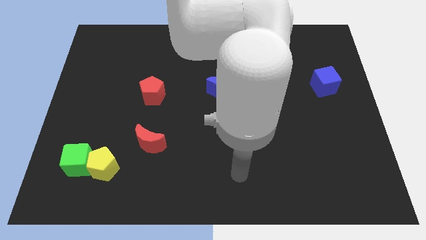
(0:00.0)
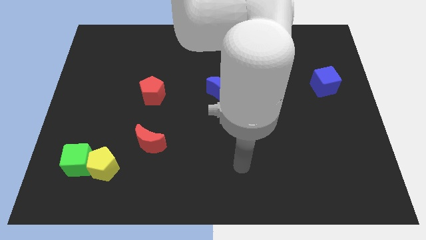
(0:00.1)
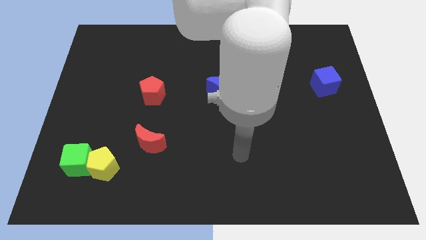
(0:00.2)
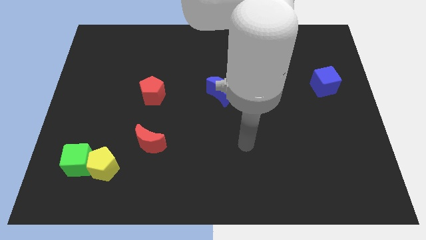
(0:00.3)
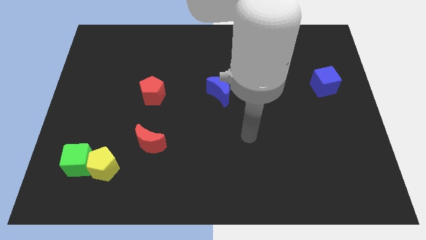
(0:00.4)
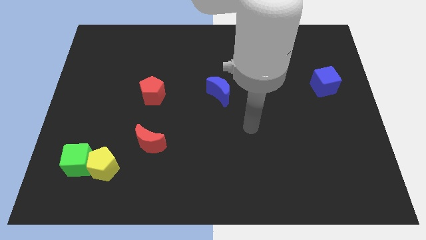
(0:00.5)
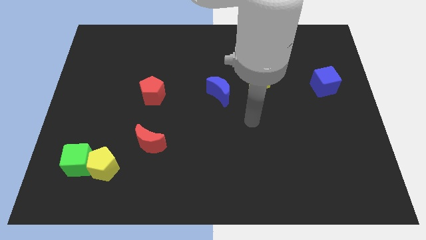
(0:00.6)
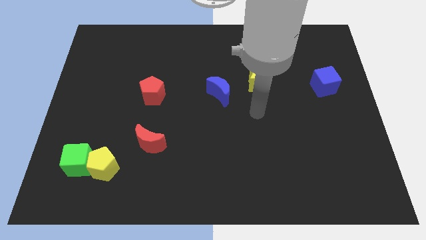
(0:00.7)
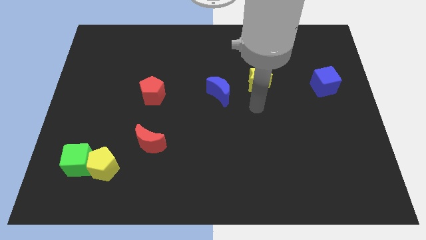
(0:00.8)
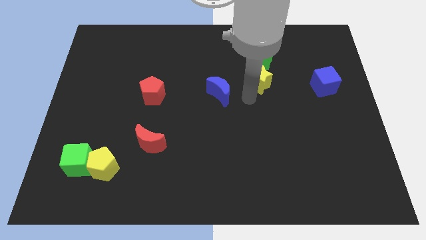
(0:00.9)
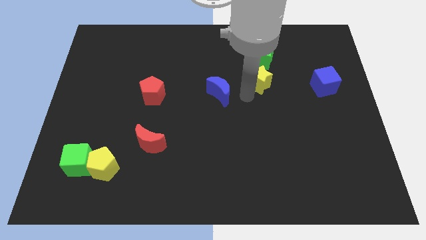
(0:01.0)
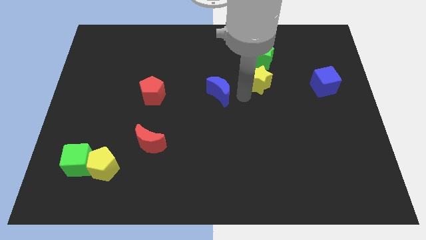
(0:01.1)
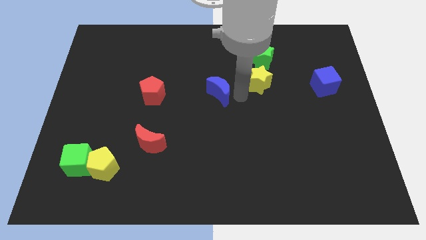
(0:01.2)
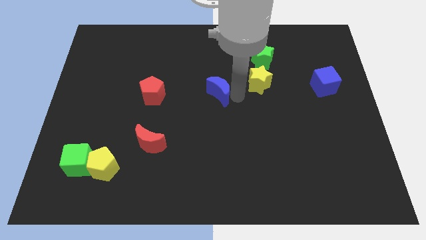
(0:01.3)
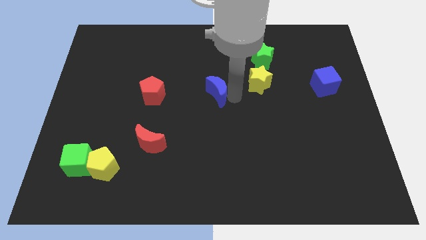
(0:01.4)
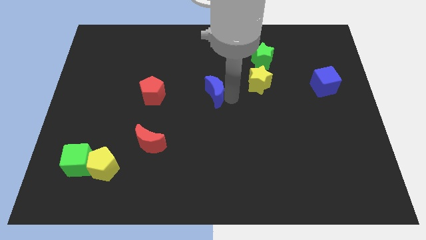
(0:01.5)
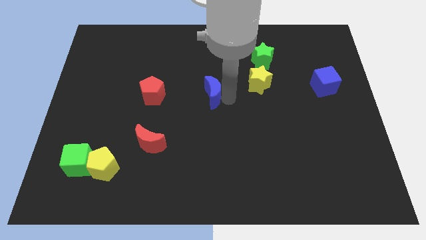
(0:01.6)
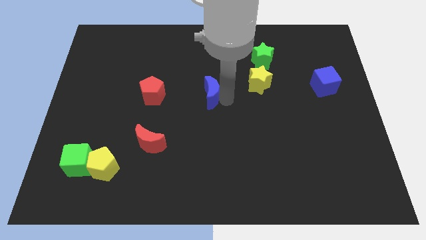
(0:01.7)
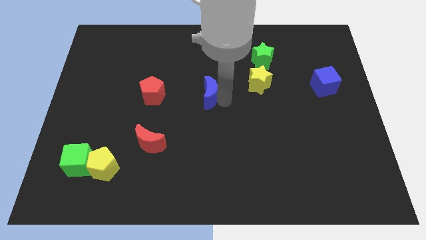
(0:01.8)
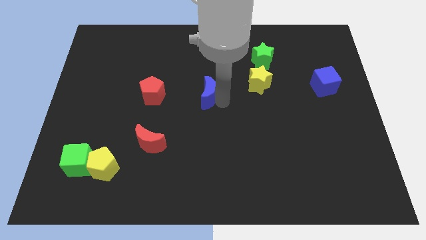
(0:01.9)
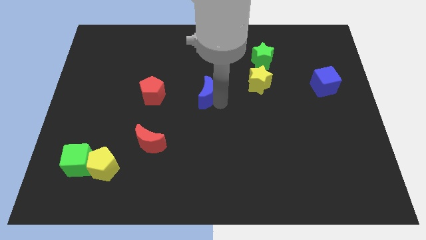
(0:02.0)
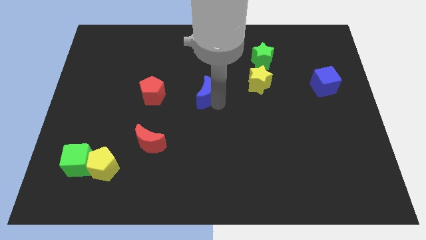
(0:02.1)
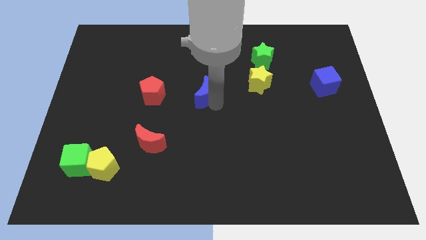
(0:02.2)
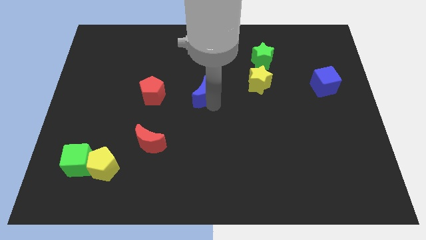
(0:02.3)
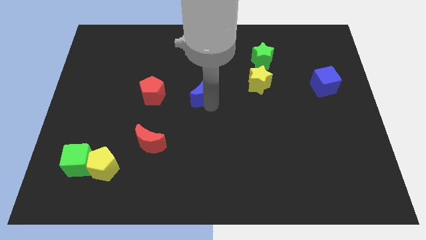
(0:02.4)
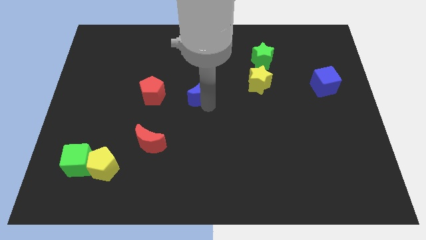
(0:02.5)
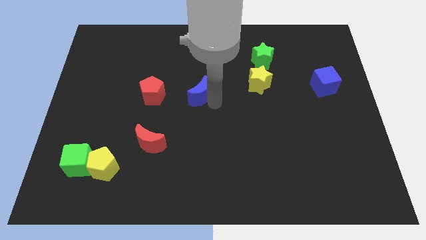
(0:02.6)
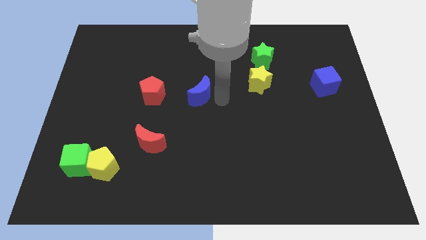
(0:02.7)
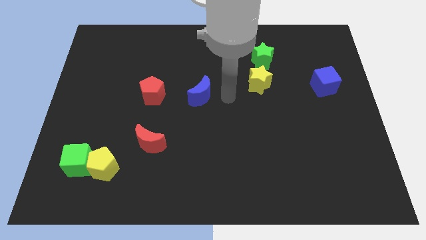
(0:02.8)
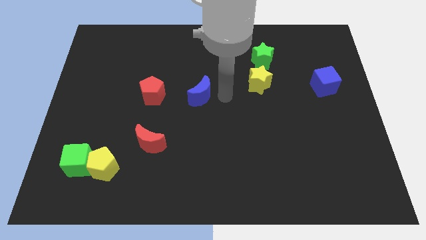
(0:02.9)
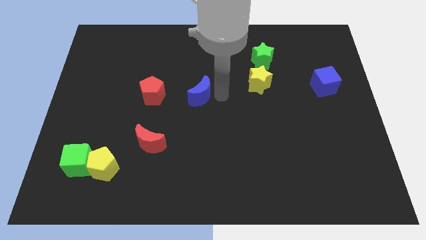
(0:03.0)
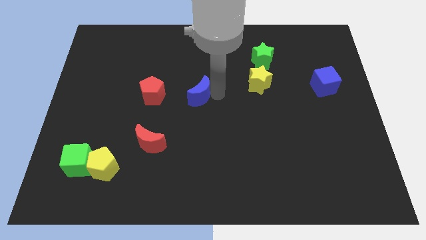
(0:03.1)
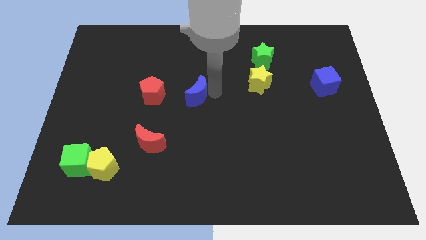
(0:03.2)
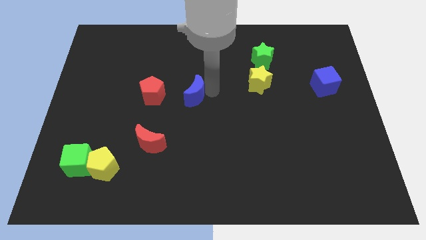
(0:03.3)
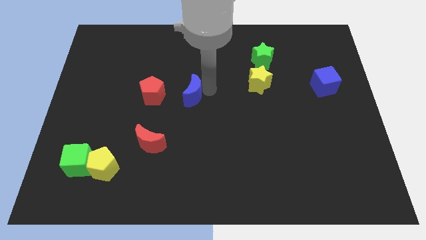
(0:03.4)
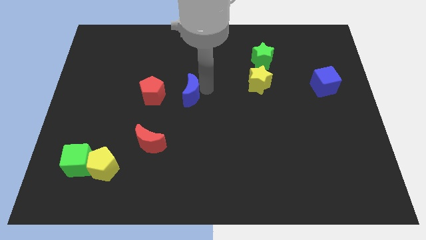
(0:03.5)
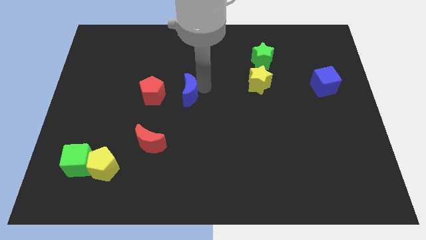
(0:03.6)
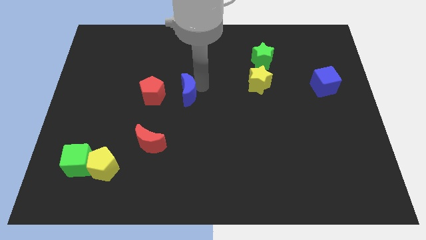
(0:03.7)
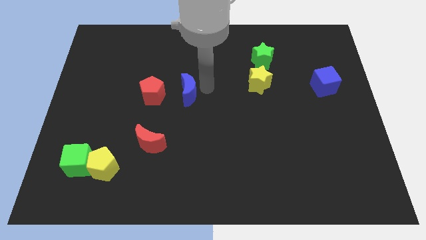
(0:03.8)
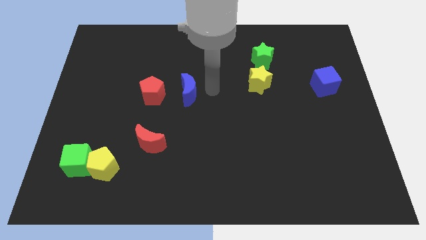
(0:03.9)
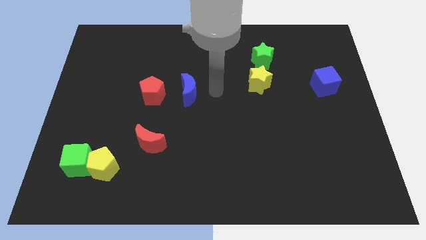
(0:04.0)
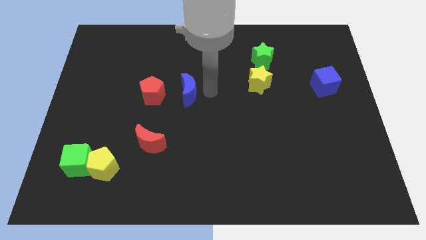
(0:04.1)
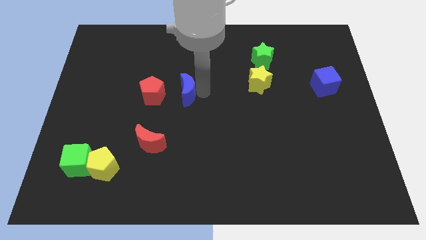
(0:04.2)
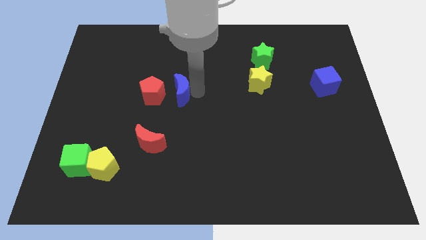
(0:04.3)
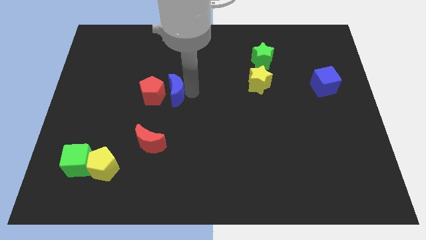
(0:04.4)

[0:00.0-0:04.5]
slide the blue moon next to the red pentagon

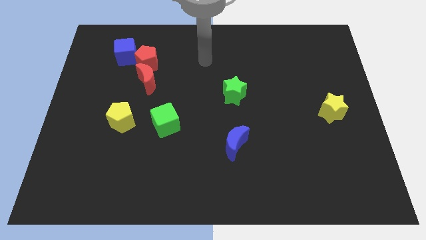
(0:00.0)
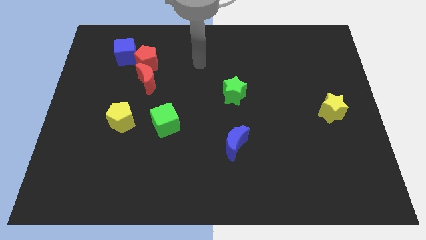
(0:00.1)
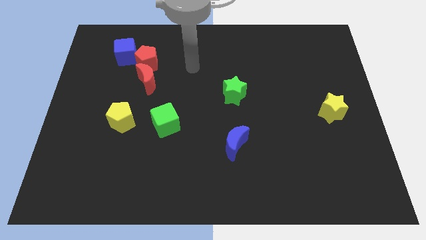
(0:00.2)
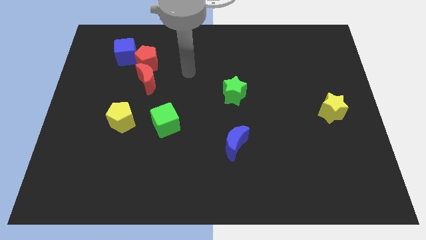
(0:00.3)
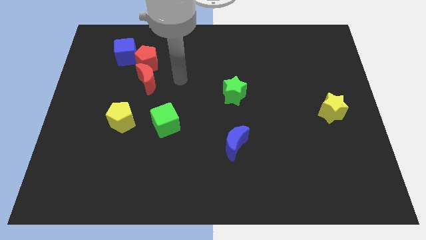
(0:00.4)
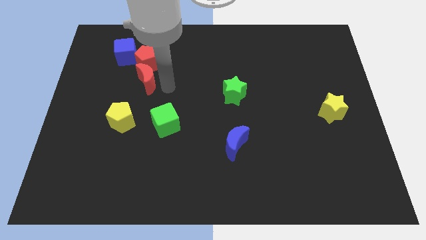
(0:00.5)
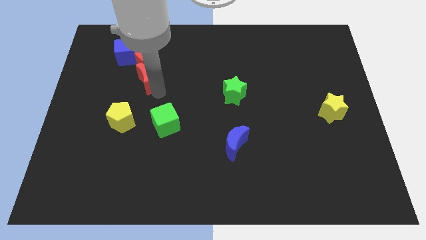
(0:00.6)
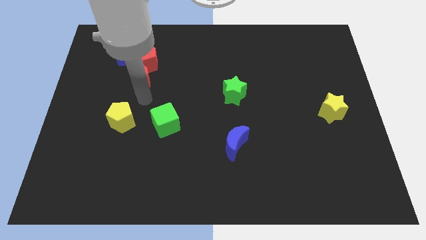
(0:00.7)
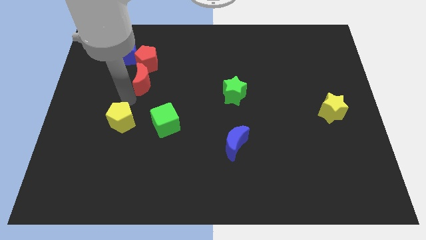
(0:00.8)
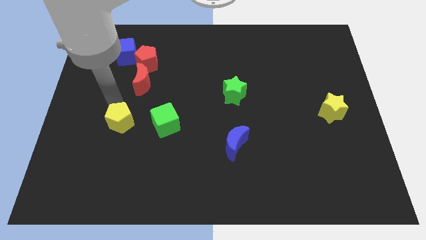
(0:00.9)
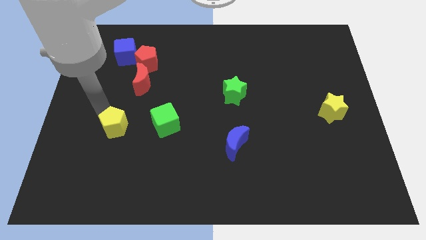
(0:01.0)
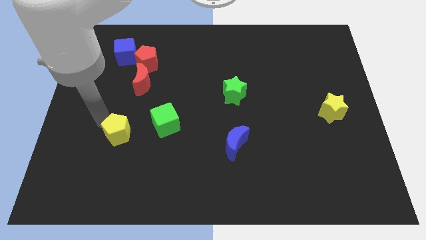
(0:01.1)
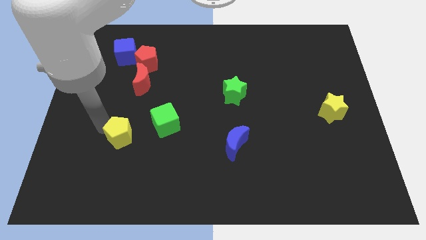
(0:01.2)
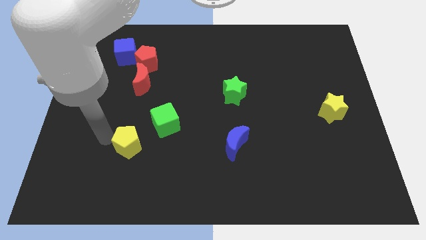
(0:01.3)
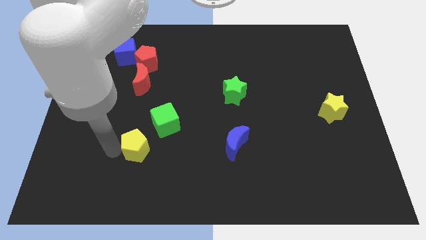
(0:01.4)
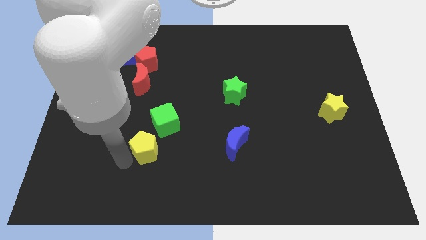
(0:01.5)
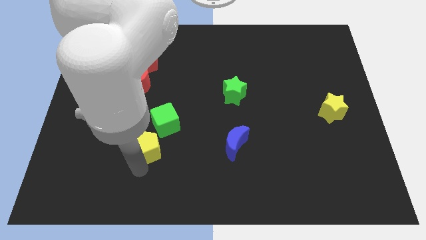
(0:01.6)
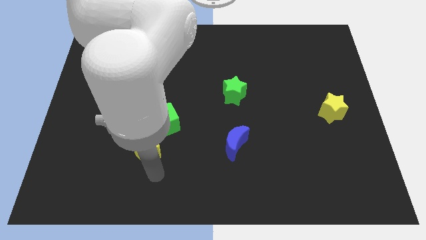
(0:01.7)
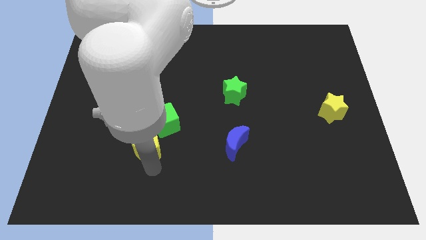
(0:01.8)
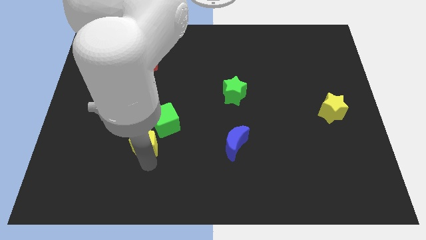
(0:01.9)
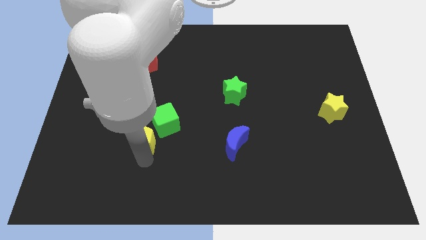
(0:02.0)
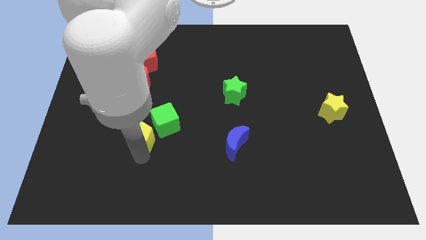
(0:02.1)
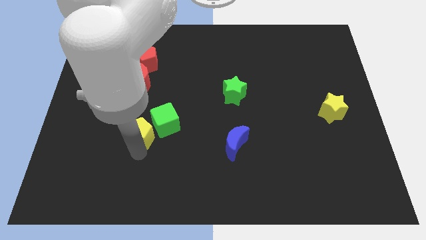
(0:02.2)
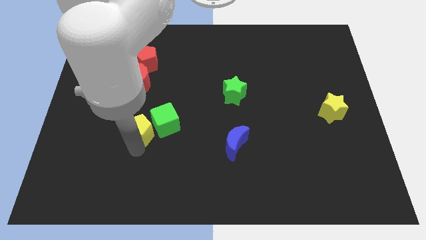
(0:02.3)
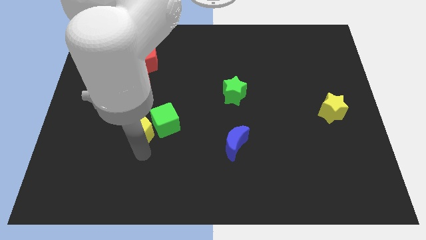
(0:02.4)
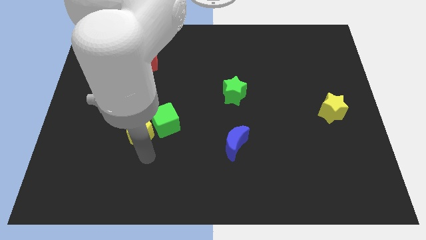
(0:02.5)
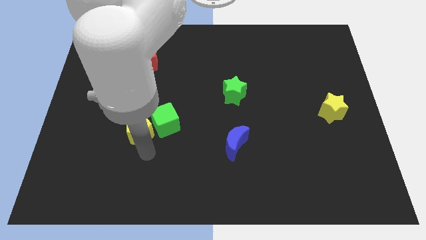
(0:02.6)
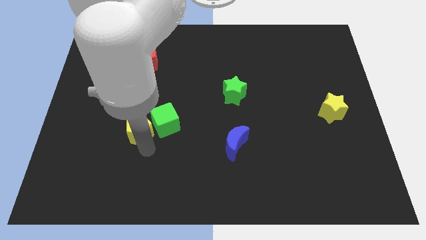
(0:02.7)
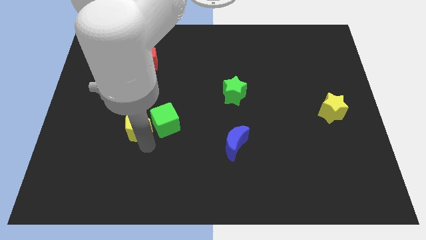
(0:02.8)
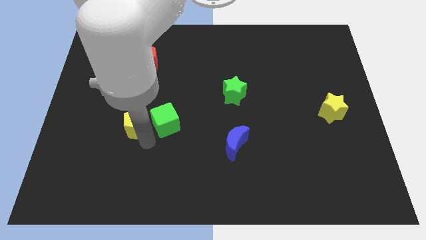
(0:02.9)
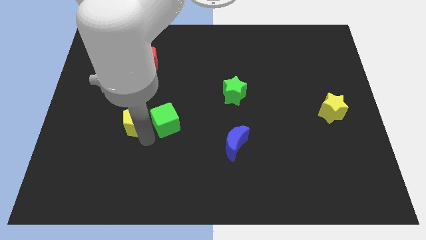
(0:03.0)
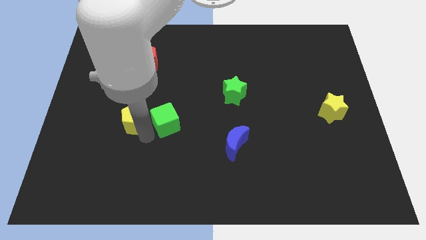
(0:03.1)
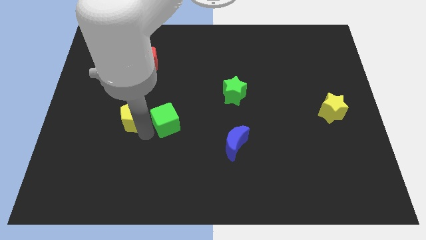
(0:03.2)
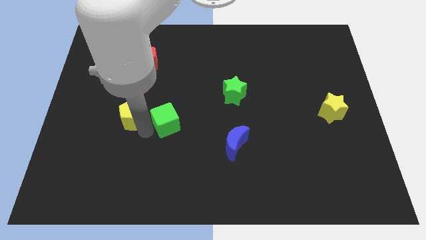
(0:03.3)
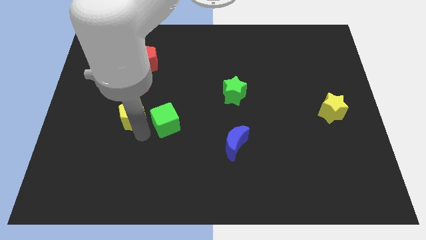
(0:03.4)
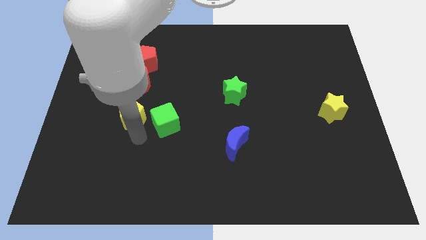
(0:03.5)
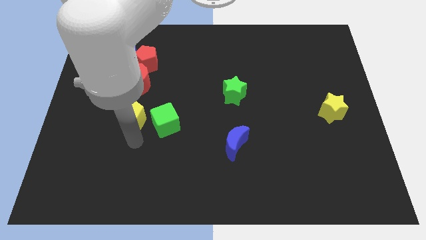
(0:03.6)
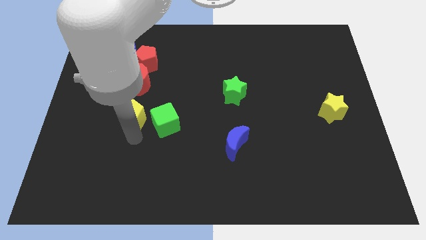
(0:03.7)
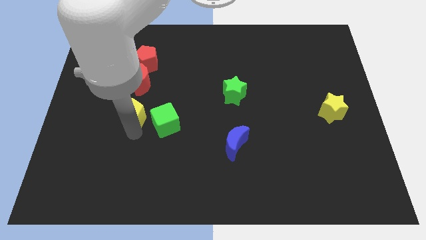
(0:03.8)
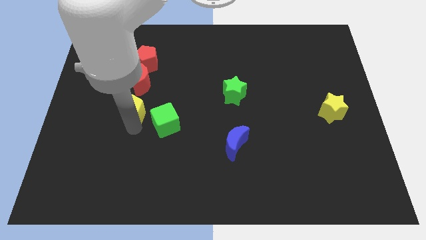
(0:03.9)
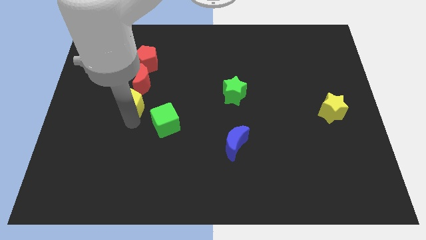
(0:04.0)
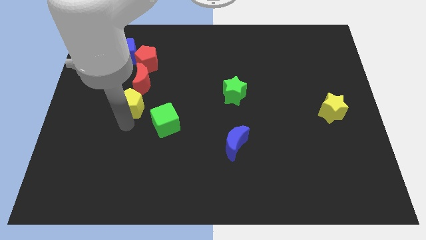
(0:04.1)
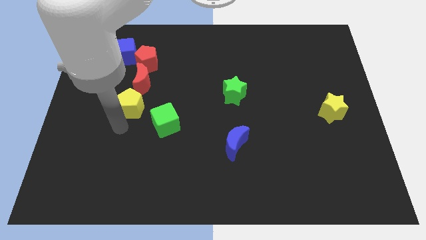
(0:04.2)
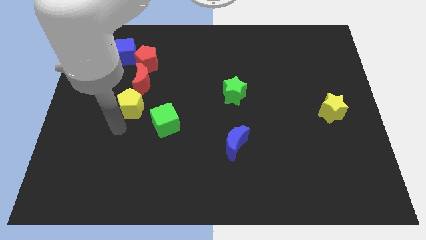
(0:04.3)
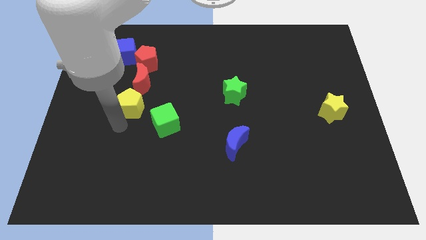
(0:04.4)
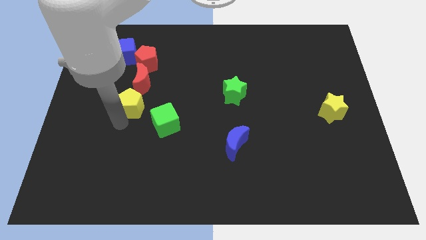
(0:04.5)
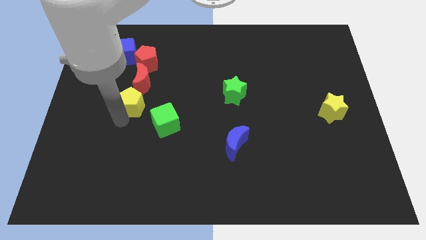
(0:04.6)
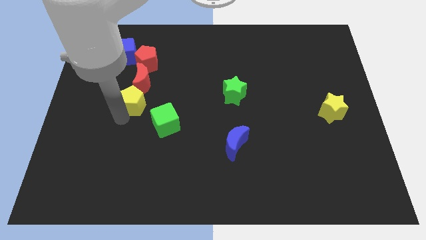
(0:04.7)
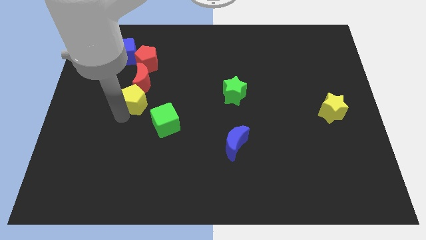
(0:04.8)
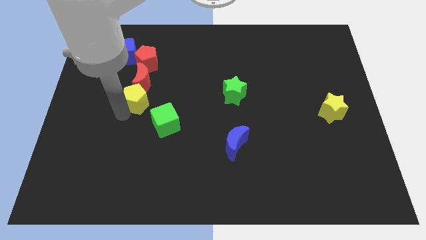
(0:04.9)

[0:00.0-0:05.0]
slide the yellow pentagon close to the red moon
